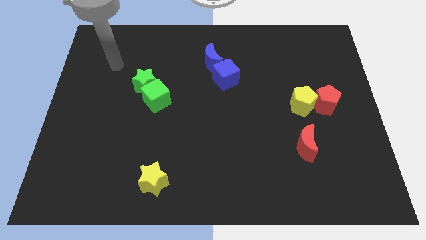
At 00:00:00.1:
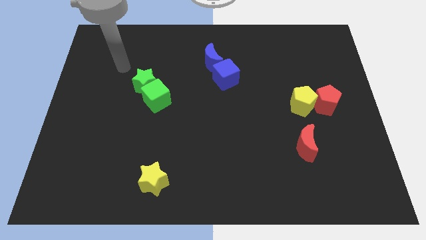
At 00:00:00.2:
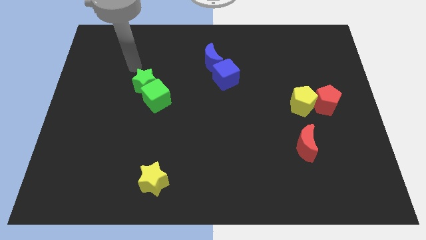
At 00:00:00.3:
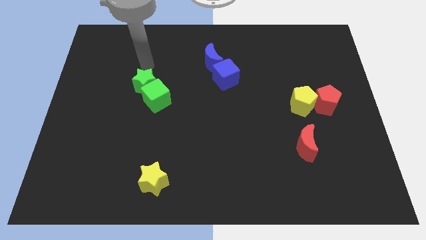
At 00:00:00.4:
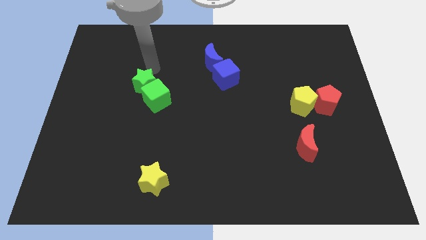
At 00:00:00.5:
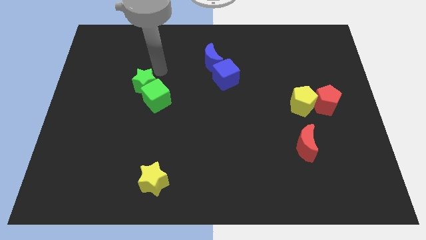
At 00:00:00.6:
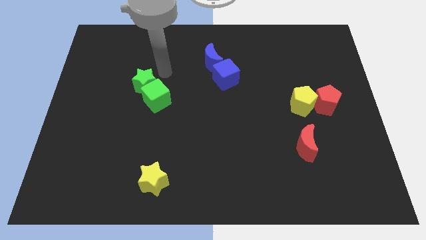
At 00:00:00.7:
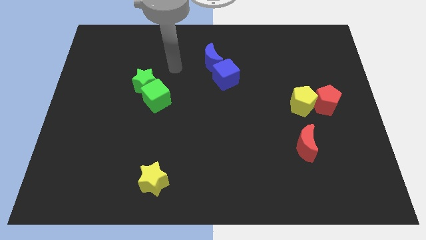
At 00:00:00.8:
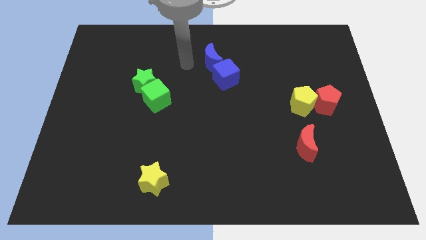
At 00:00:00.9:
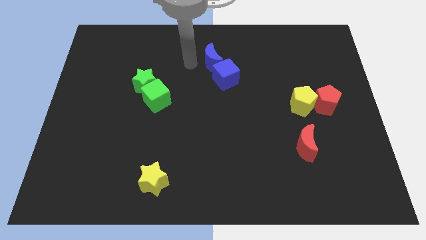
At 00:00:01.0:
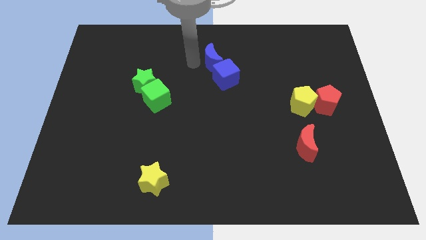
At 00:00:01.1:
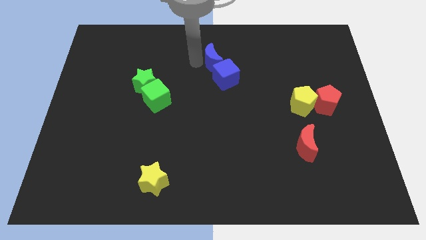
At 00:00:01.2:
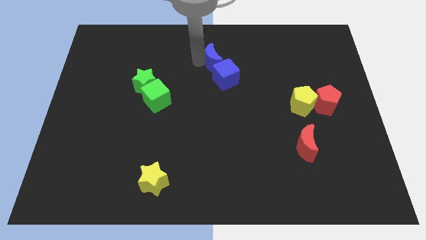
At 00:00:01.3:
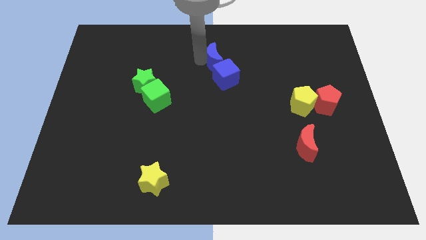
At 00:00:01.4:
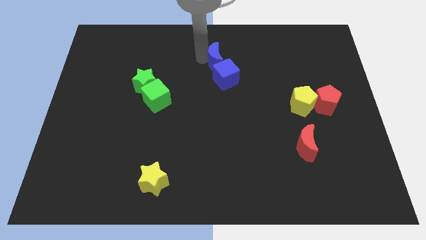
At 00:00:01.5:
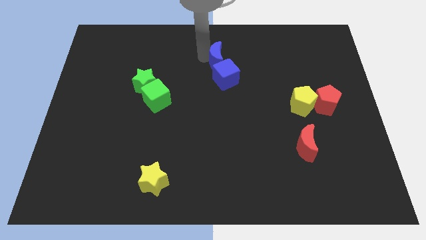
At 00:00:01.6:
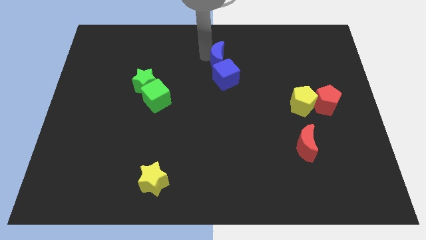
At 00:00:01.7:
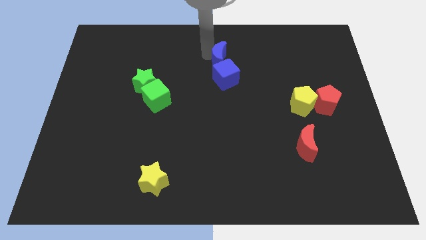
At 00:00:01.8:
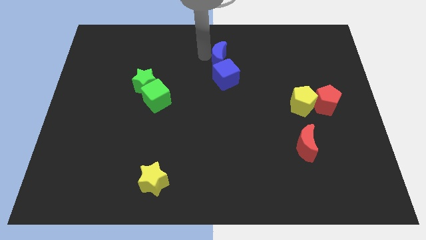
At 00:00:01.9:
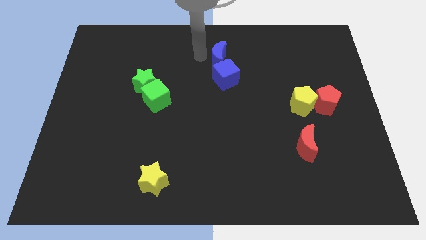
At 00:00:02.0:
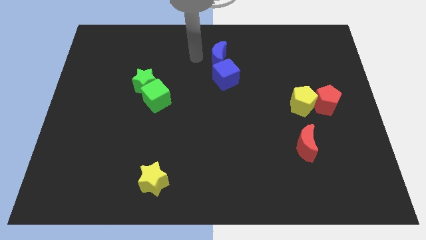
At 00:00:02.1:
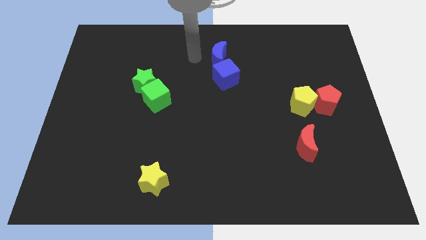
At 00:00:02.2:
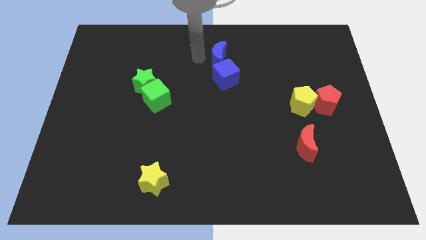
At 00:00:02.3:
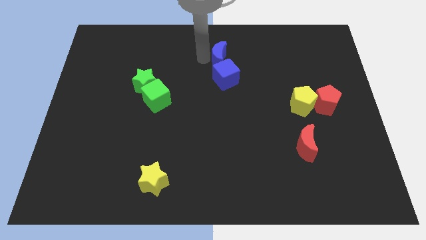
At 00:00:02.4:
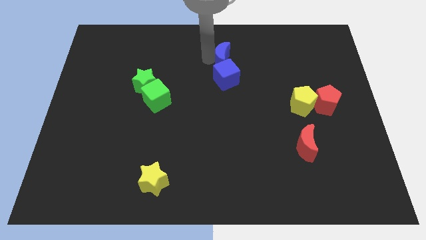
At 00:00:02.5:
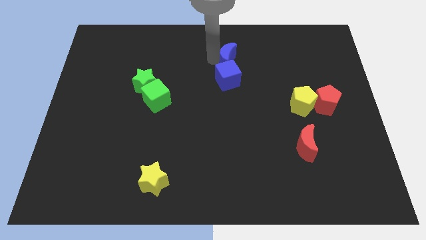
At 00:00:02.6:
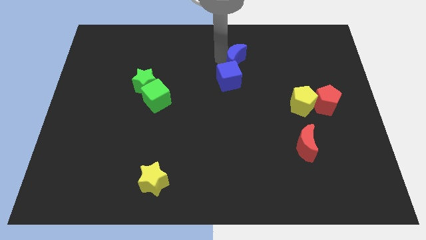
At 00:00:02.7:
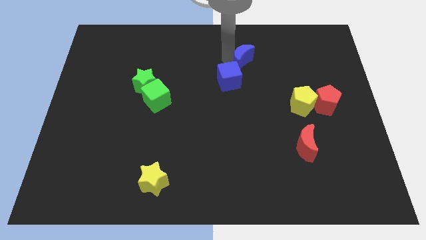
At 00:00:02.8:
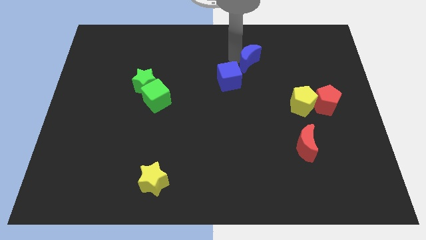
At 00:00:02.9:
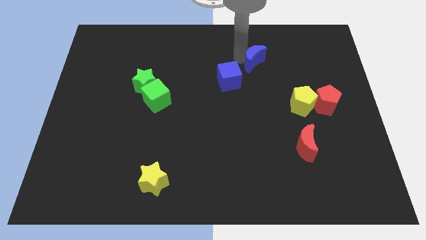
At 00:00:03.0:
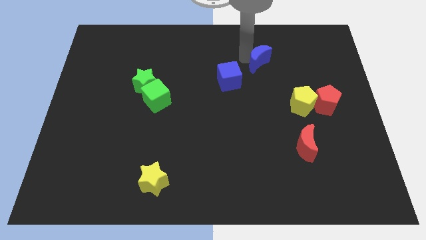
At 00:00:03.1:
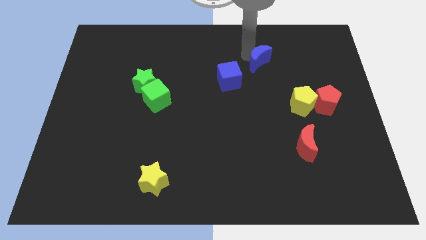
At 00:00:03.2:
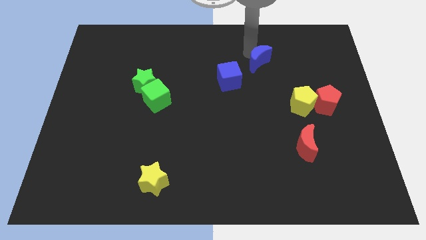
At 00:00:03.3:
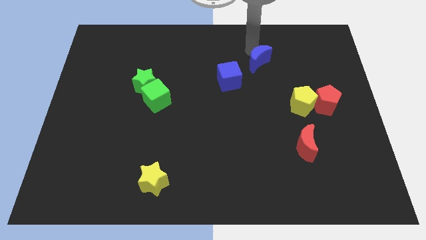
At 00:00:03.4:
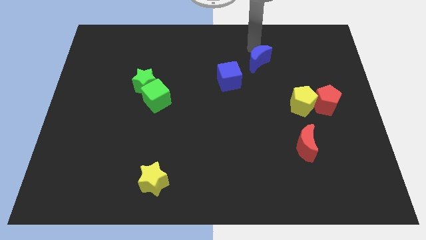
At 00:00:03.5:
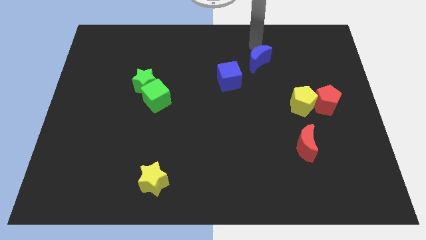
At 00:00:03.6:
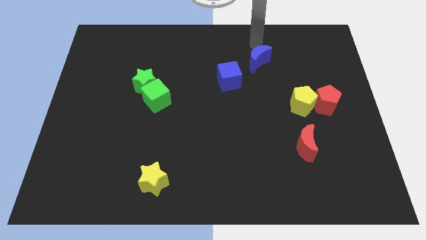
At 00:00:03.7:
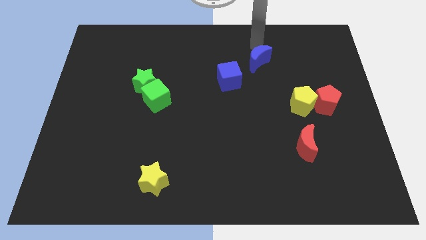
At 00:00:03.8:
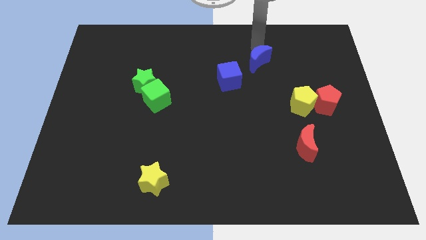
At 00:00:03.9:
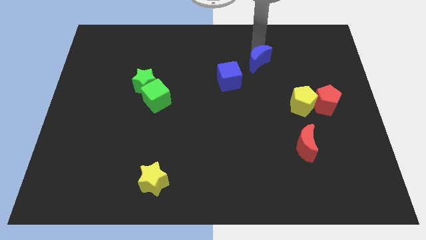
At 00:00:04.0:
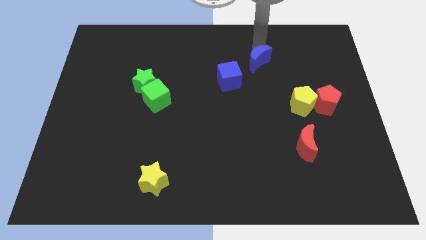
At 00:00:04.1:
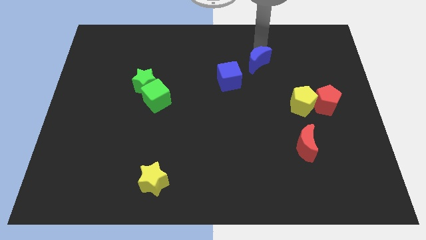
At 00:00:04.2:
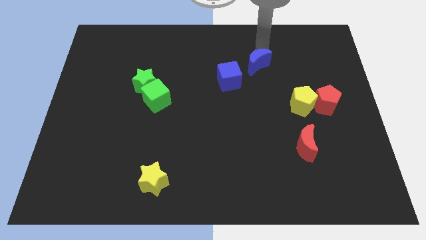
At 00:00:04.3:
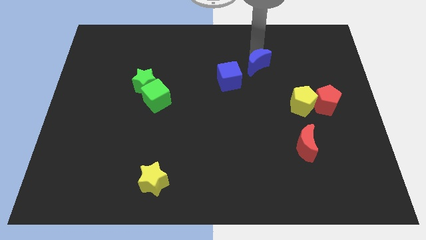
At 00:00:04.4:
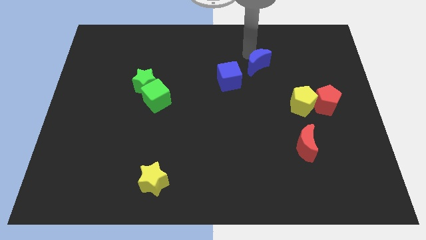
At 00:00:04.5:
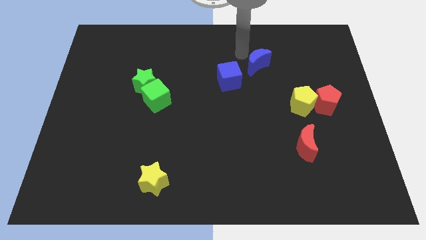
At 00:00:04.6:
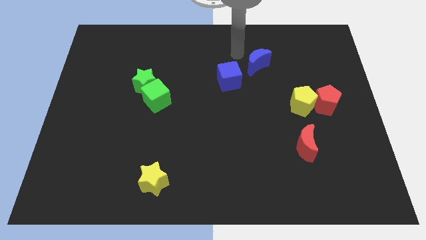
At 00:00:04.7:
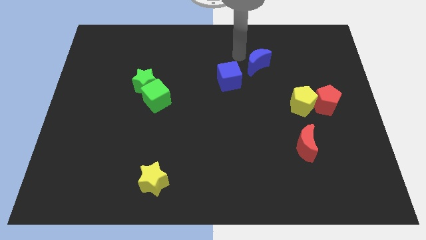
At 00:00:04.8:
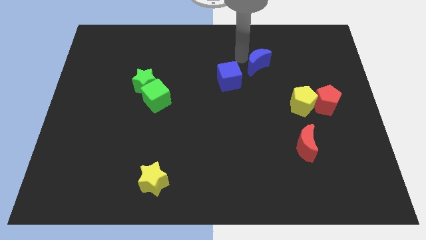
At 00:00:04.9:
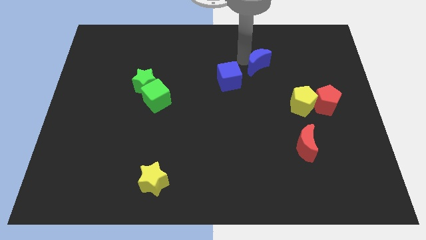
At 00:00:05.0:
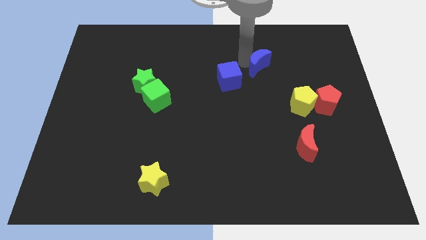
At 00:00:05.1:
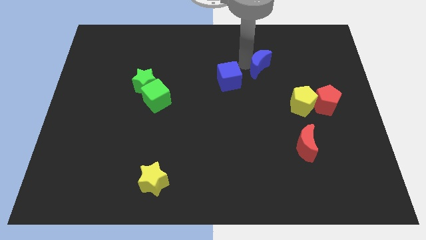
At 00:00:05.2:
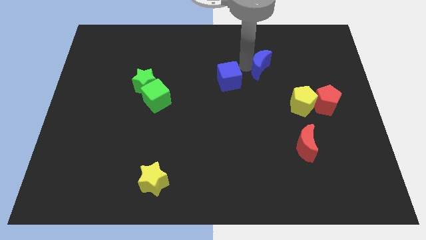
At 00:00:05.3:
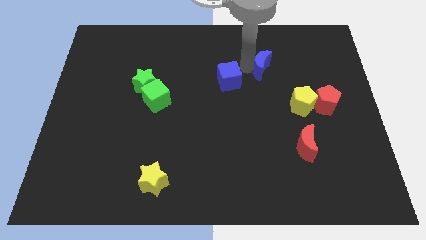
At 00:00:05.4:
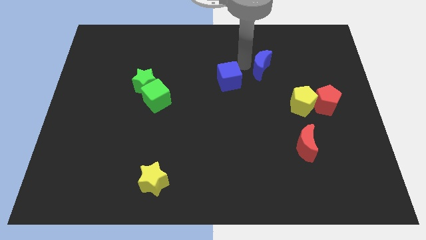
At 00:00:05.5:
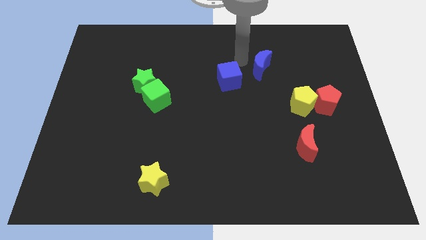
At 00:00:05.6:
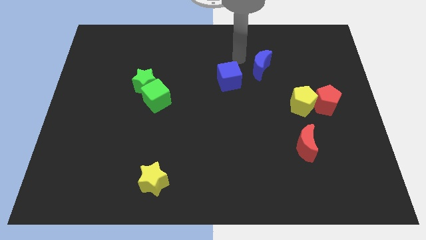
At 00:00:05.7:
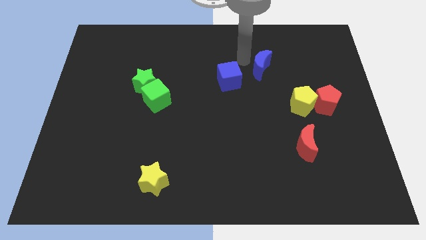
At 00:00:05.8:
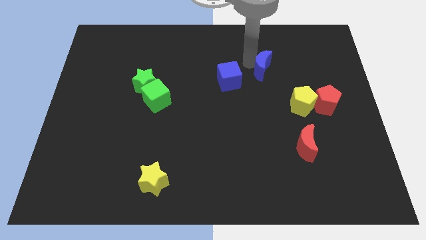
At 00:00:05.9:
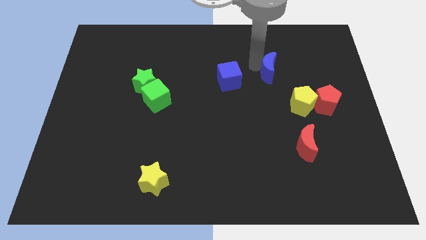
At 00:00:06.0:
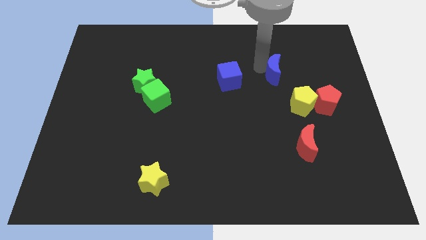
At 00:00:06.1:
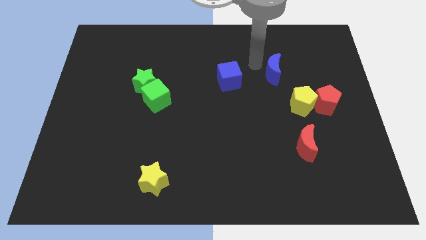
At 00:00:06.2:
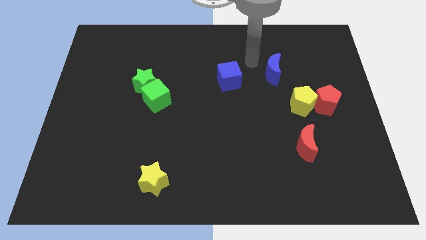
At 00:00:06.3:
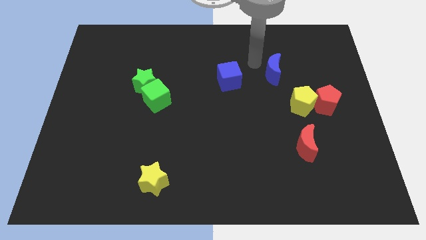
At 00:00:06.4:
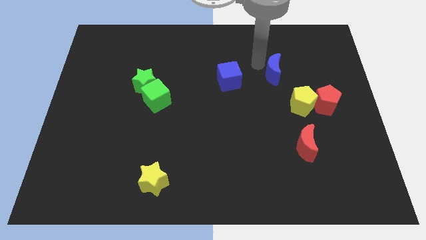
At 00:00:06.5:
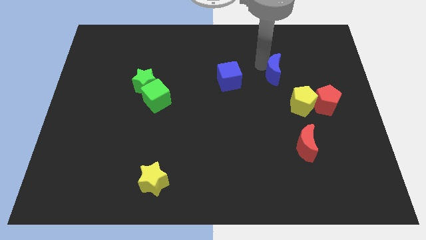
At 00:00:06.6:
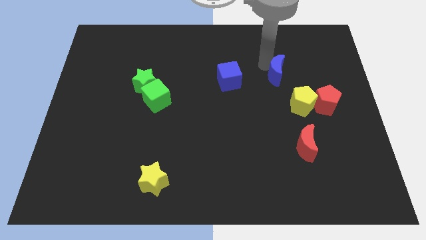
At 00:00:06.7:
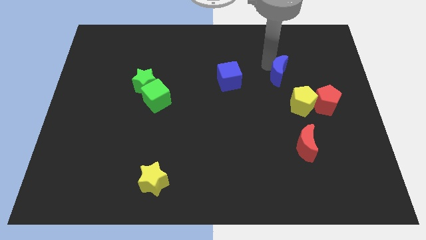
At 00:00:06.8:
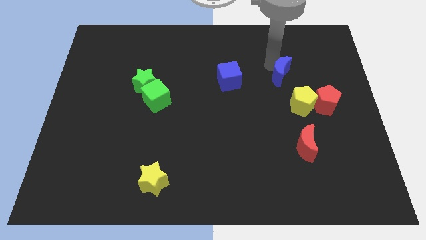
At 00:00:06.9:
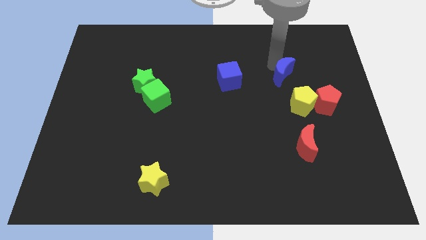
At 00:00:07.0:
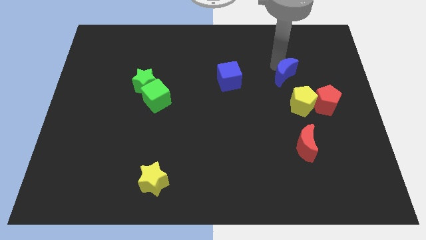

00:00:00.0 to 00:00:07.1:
slide the blue moon to the top left of the red pentagon
